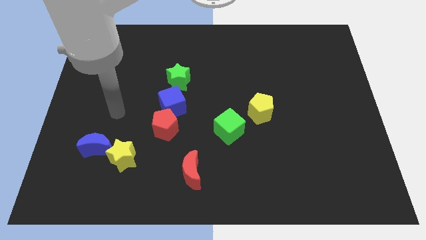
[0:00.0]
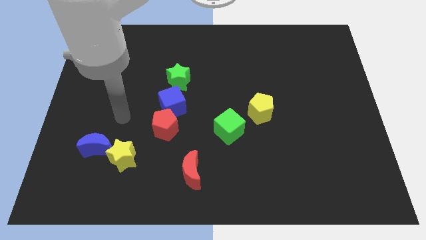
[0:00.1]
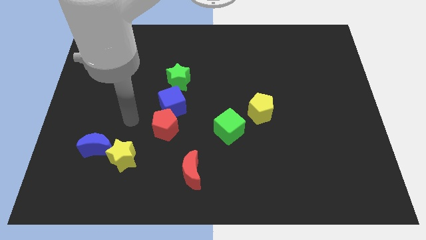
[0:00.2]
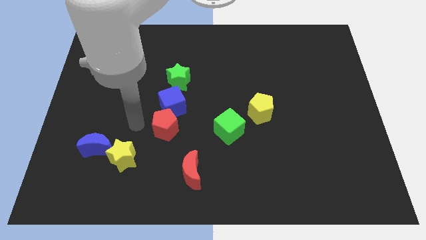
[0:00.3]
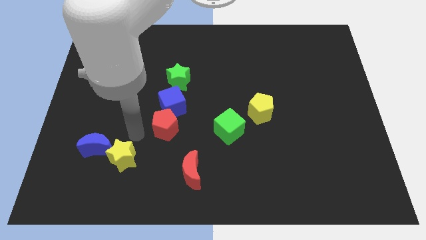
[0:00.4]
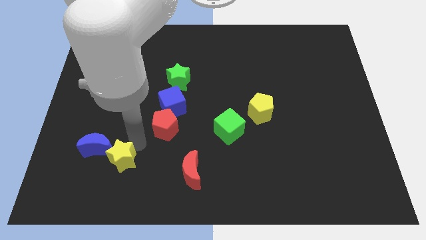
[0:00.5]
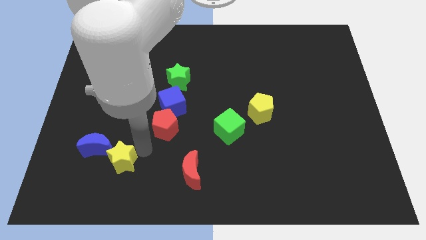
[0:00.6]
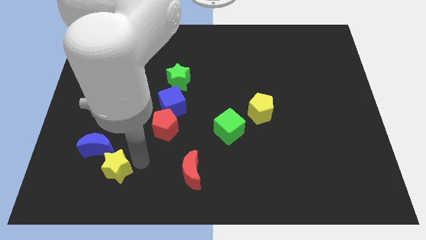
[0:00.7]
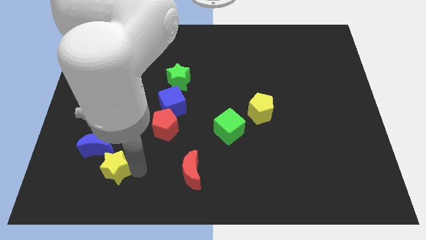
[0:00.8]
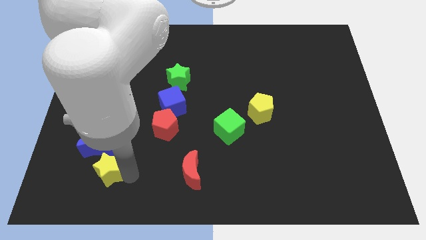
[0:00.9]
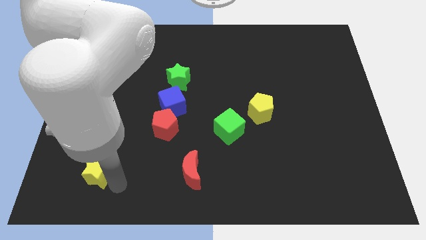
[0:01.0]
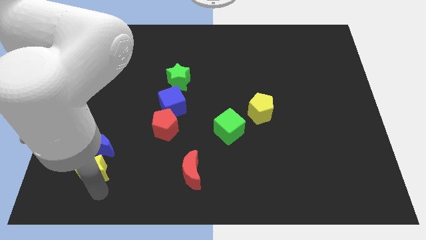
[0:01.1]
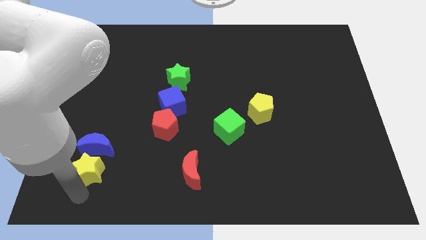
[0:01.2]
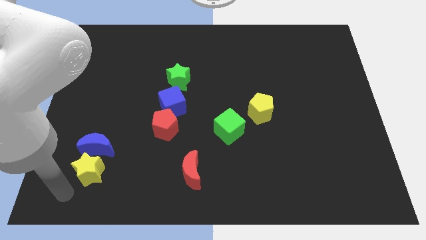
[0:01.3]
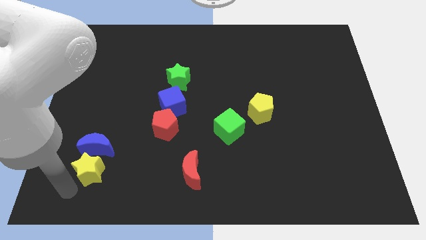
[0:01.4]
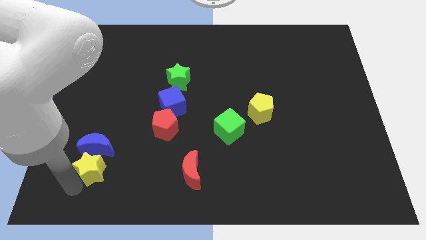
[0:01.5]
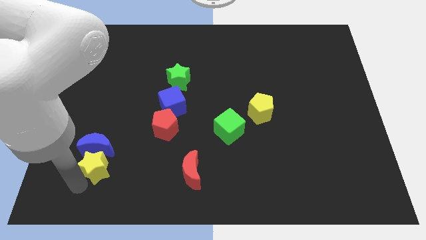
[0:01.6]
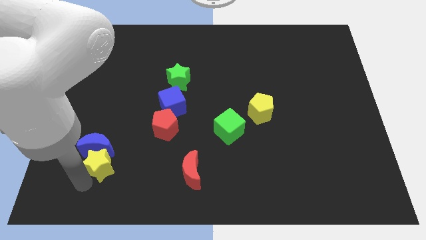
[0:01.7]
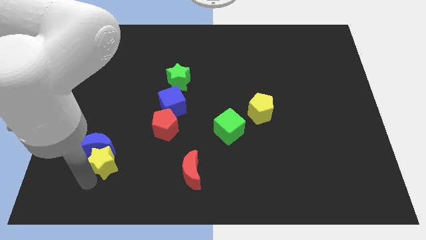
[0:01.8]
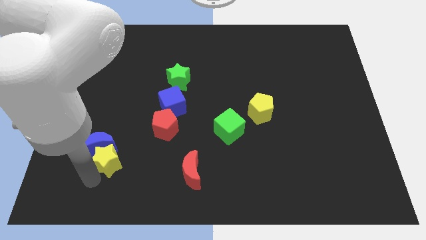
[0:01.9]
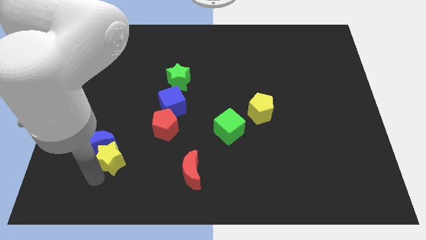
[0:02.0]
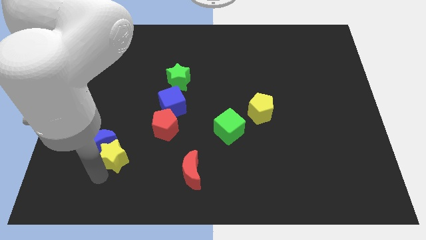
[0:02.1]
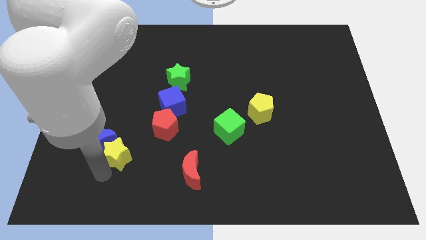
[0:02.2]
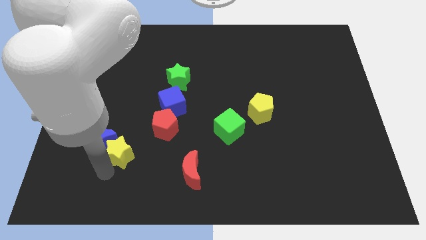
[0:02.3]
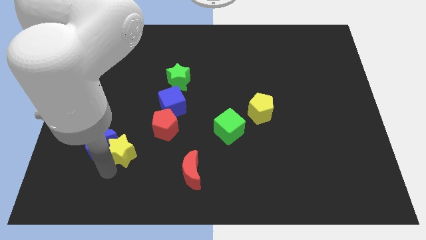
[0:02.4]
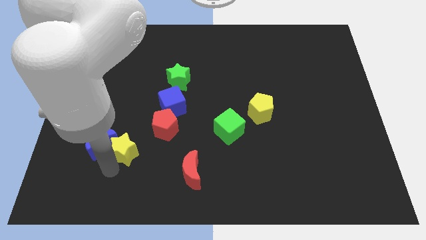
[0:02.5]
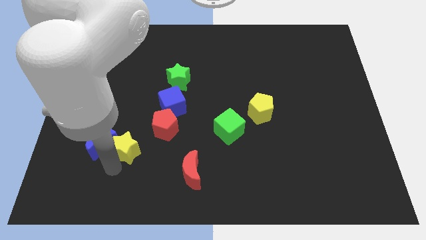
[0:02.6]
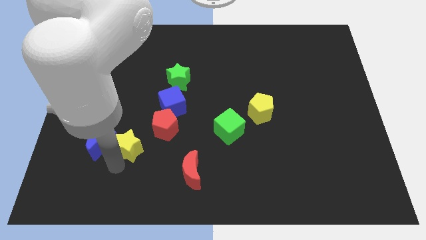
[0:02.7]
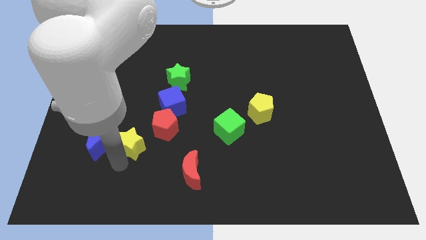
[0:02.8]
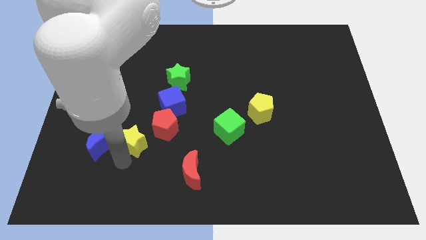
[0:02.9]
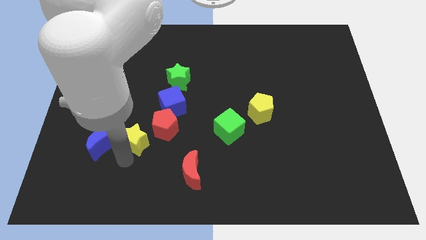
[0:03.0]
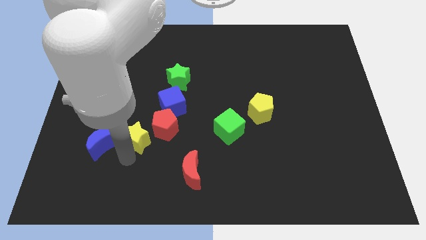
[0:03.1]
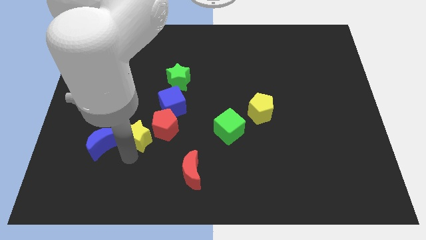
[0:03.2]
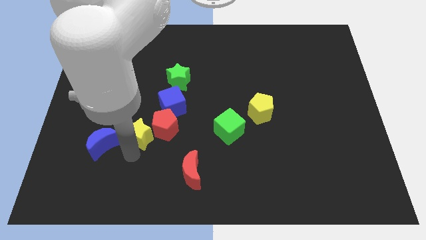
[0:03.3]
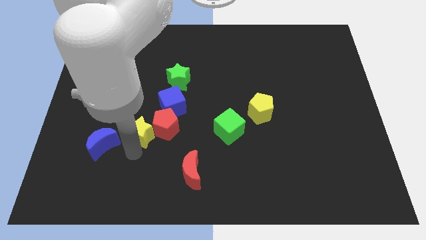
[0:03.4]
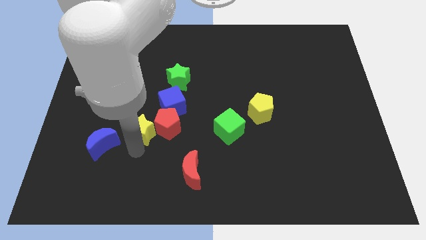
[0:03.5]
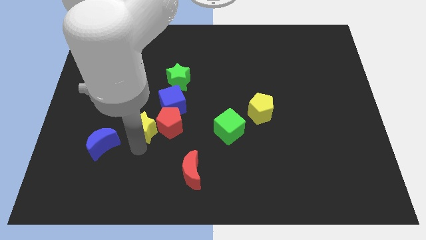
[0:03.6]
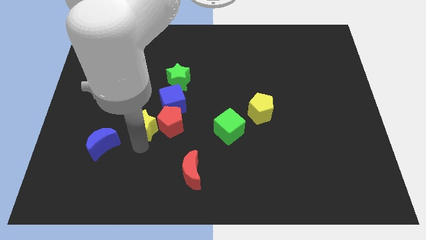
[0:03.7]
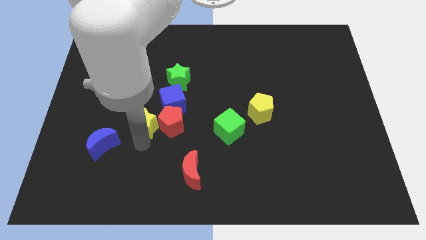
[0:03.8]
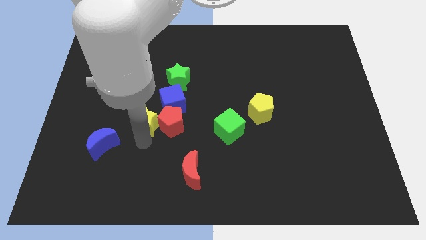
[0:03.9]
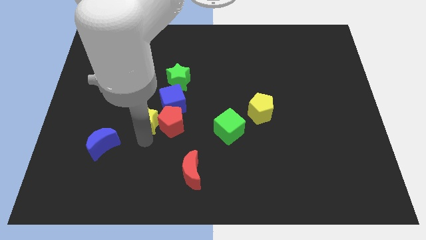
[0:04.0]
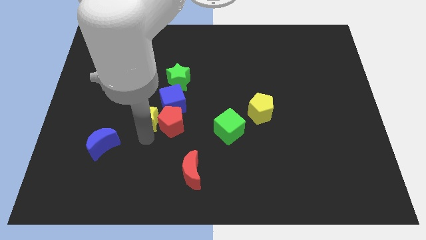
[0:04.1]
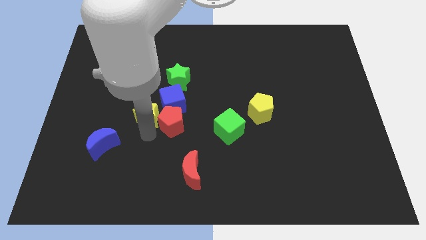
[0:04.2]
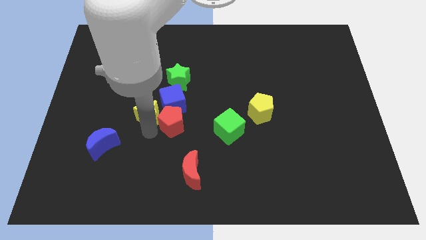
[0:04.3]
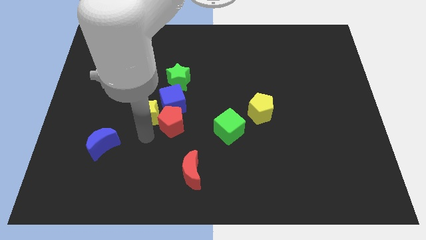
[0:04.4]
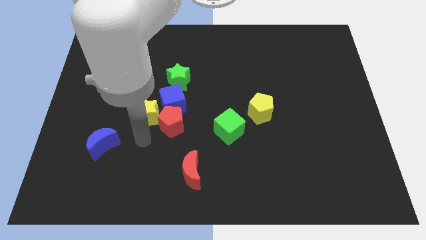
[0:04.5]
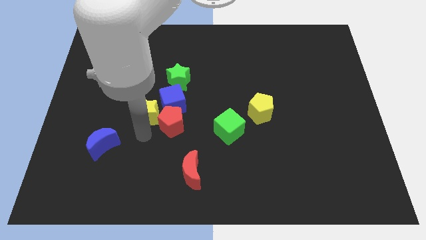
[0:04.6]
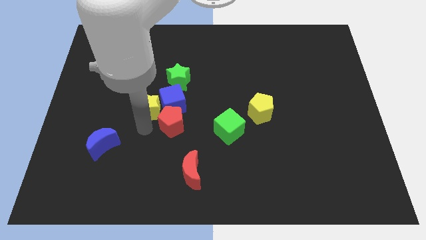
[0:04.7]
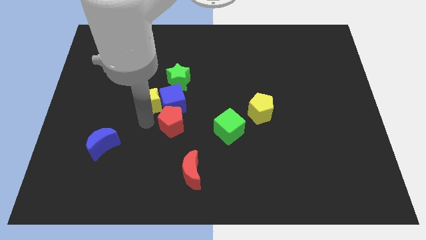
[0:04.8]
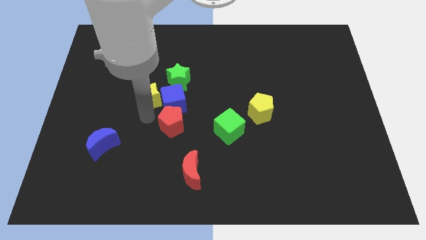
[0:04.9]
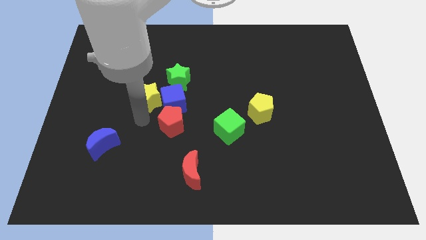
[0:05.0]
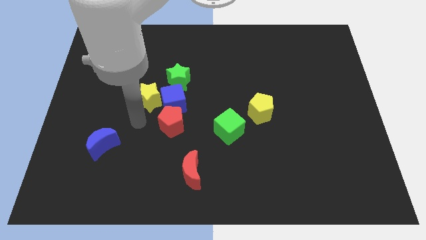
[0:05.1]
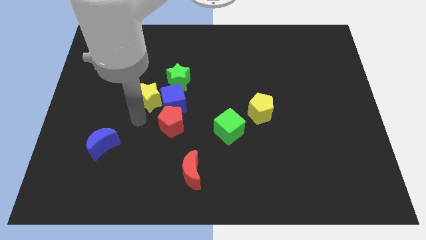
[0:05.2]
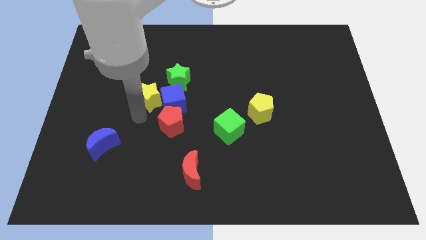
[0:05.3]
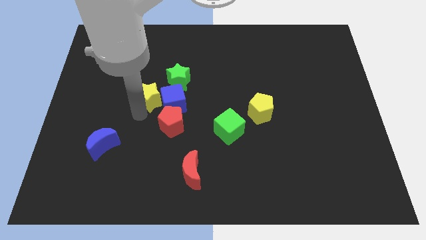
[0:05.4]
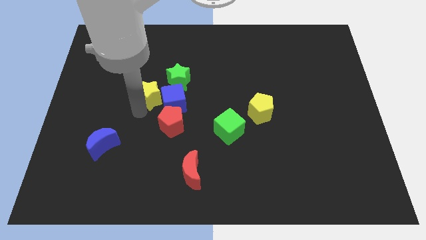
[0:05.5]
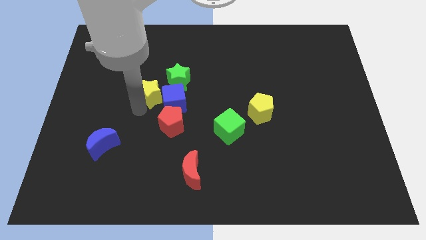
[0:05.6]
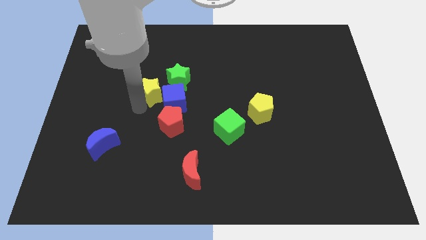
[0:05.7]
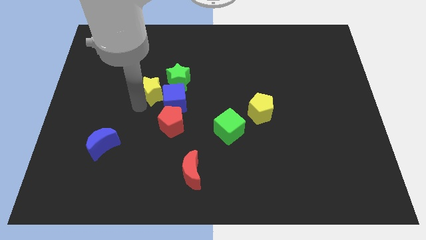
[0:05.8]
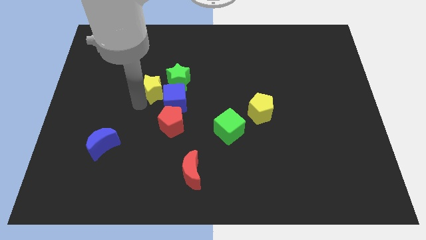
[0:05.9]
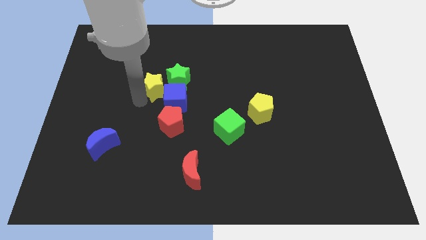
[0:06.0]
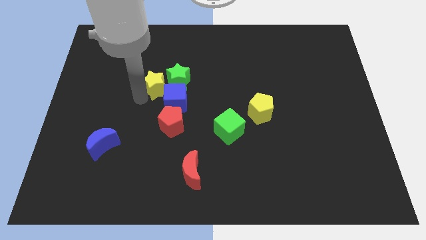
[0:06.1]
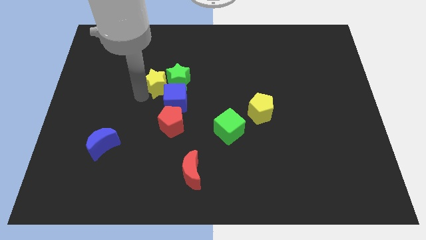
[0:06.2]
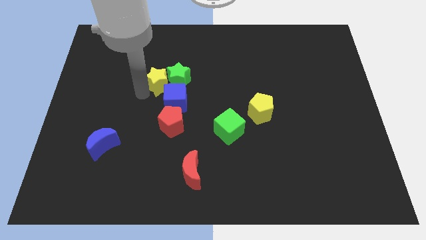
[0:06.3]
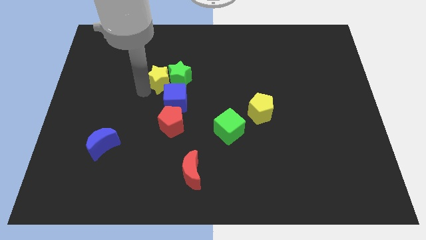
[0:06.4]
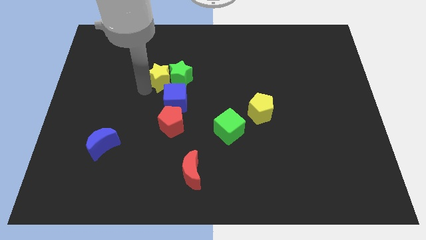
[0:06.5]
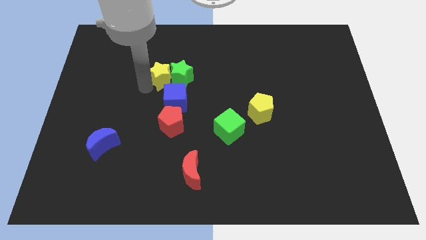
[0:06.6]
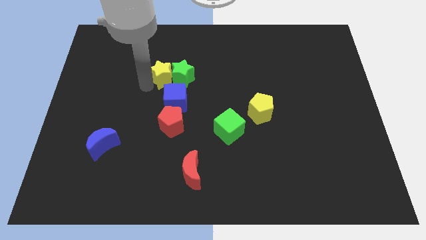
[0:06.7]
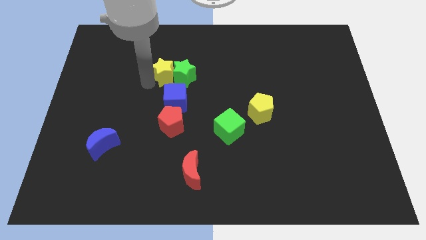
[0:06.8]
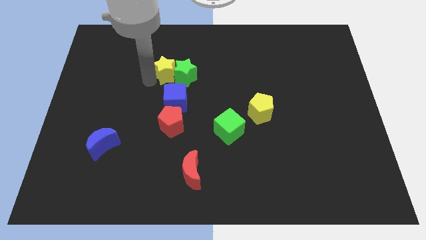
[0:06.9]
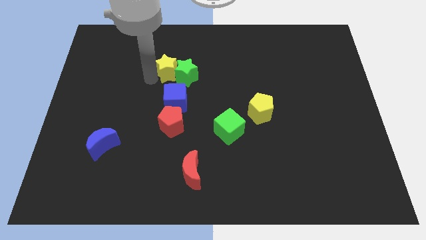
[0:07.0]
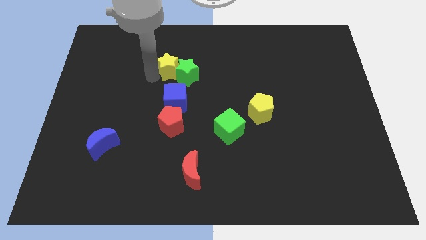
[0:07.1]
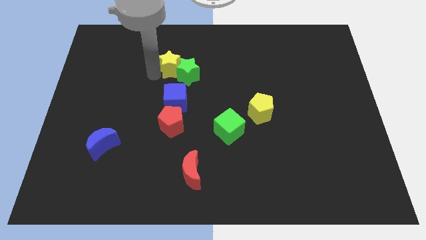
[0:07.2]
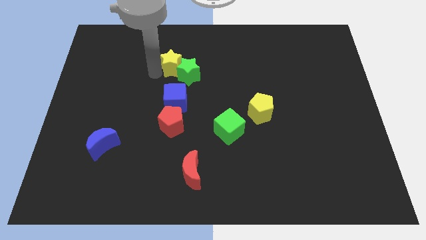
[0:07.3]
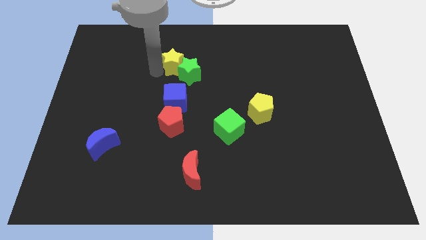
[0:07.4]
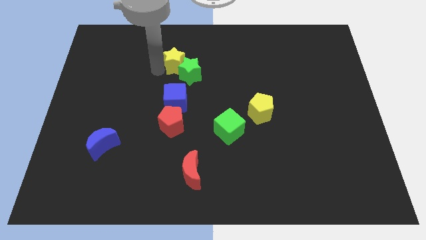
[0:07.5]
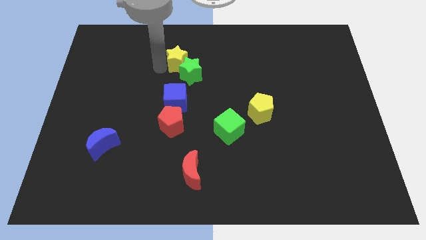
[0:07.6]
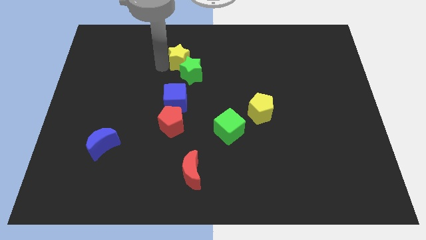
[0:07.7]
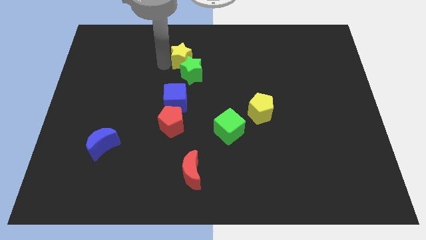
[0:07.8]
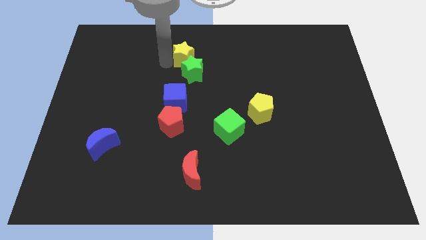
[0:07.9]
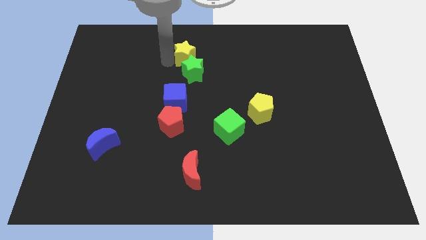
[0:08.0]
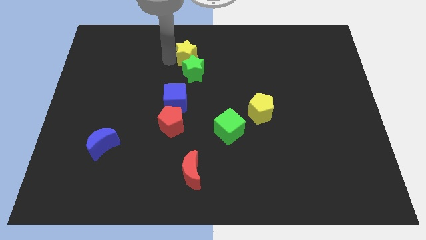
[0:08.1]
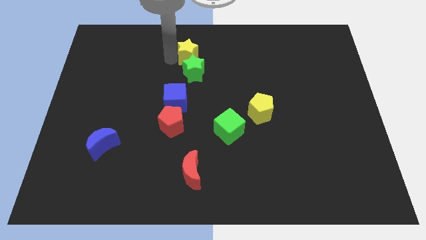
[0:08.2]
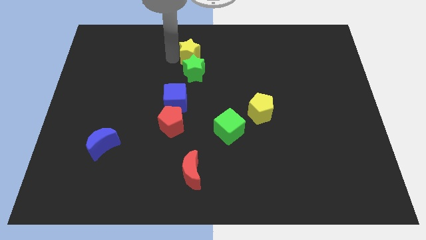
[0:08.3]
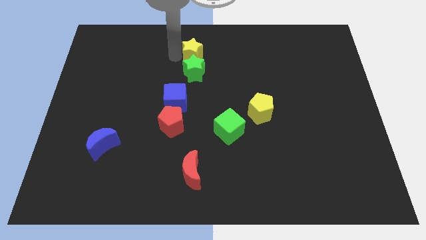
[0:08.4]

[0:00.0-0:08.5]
slide the yellow star to the towards your base
